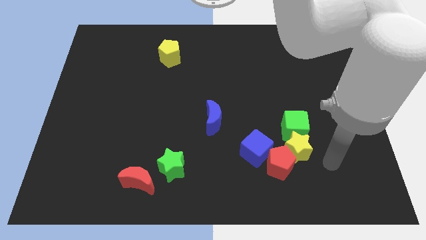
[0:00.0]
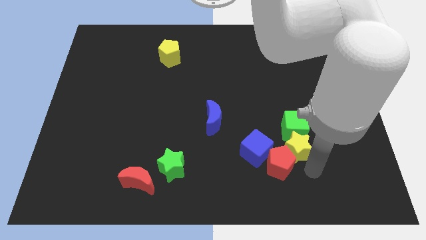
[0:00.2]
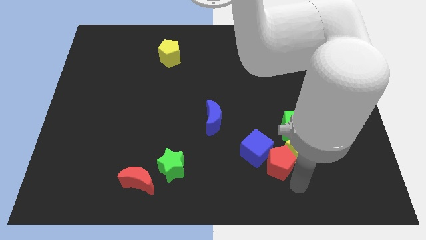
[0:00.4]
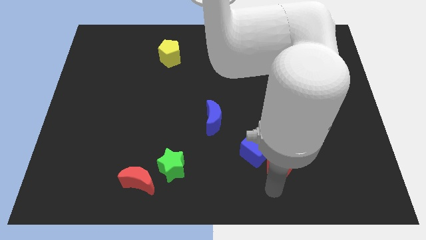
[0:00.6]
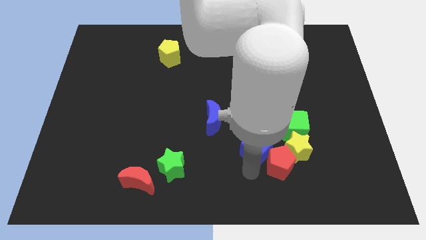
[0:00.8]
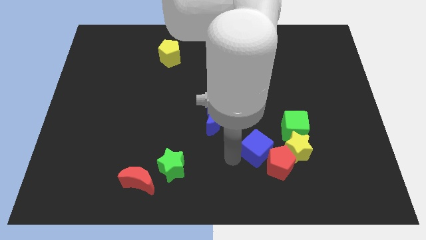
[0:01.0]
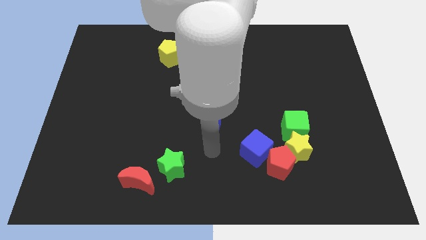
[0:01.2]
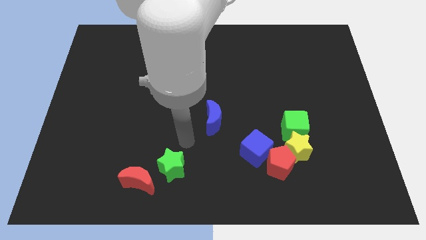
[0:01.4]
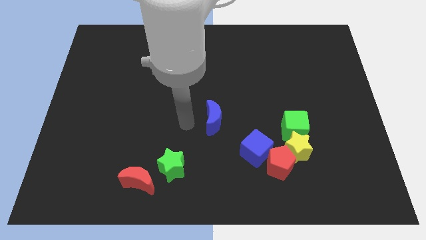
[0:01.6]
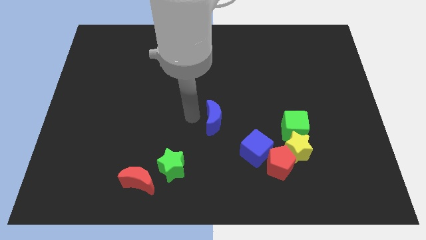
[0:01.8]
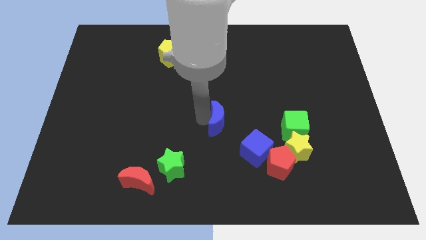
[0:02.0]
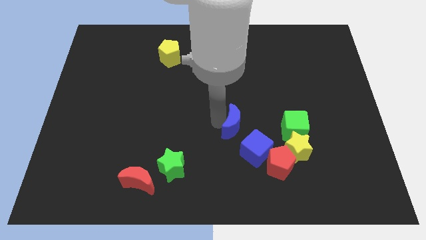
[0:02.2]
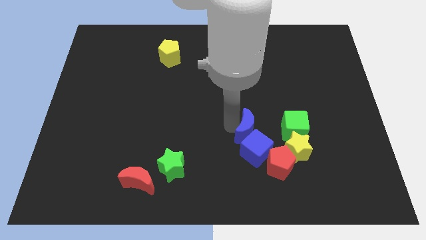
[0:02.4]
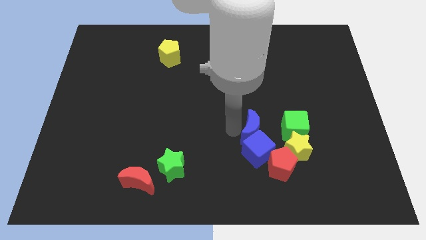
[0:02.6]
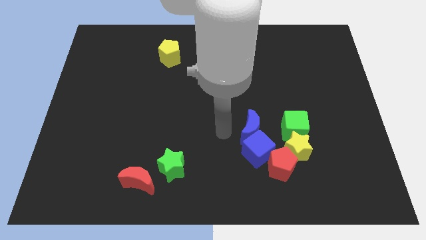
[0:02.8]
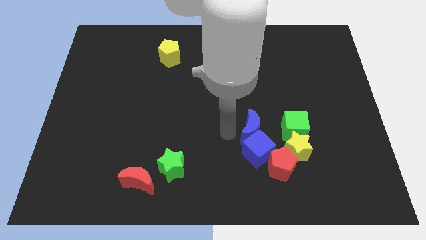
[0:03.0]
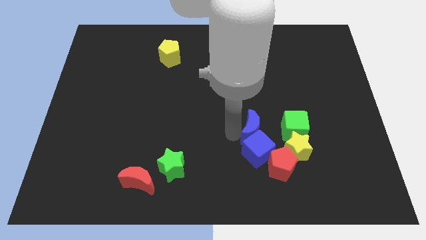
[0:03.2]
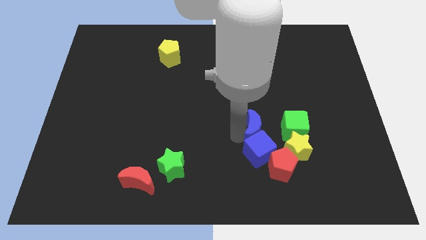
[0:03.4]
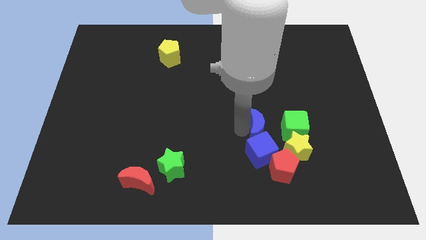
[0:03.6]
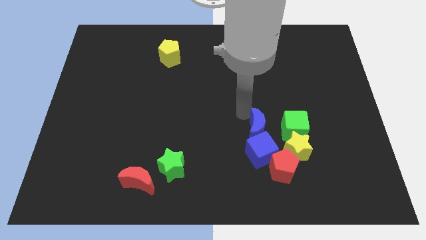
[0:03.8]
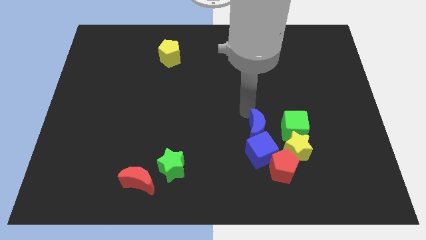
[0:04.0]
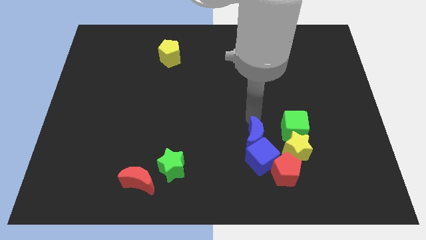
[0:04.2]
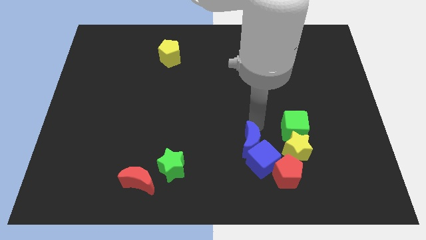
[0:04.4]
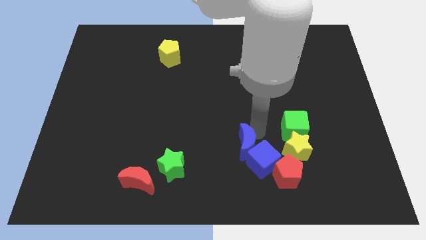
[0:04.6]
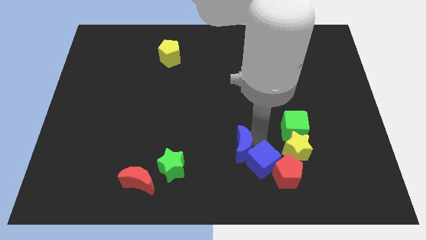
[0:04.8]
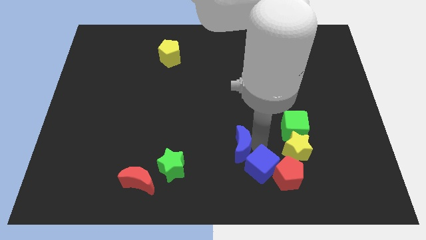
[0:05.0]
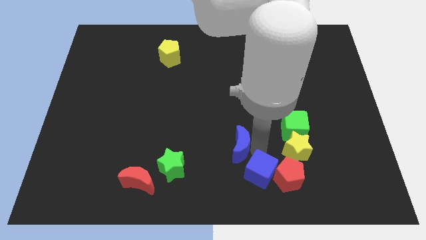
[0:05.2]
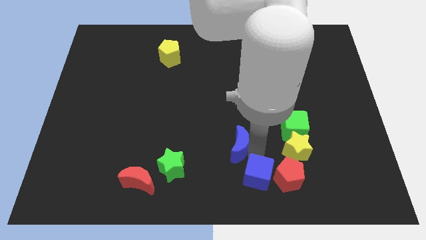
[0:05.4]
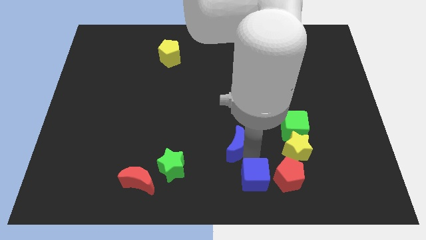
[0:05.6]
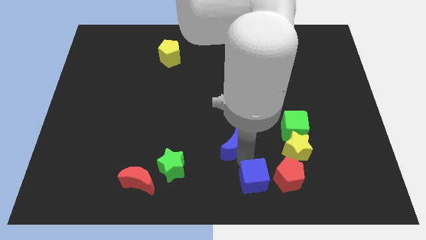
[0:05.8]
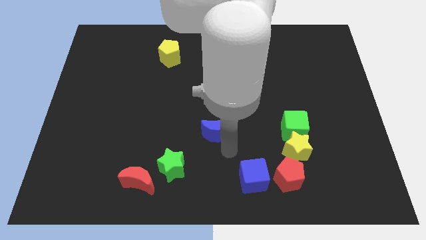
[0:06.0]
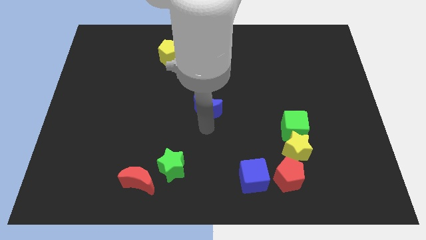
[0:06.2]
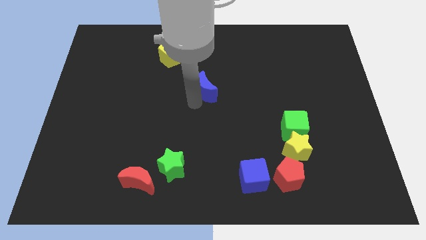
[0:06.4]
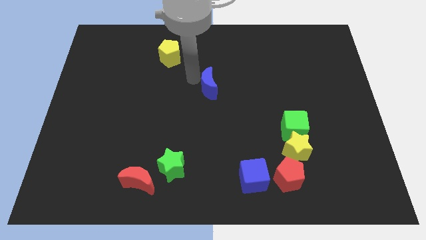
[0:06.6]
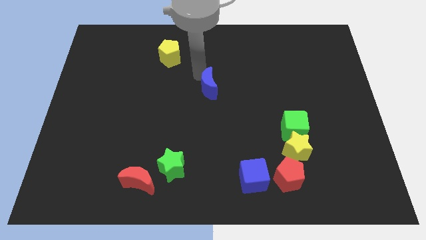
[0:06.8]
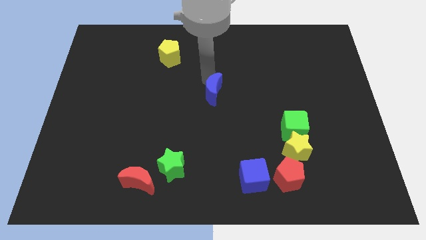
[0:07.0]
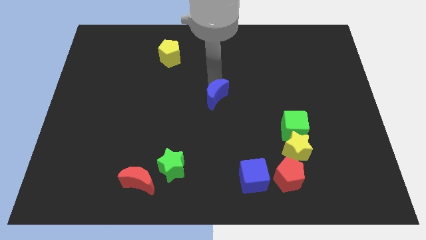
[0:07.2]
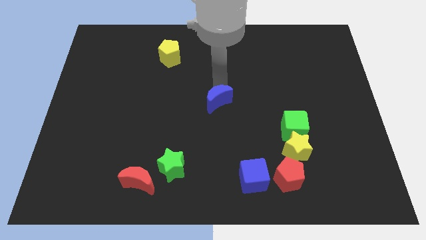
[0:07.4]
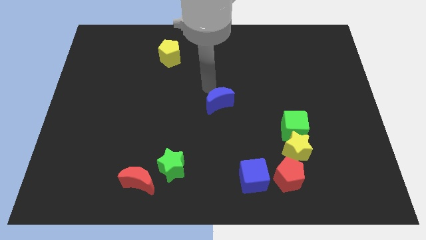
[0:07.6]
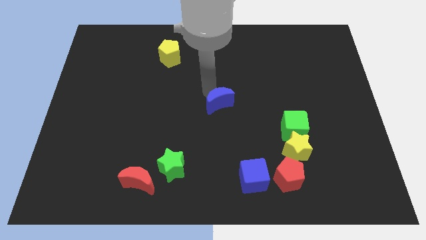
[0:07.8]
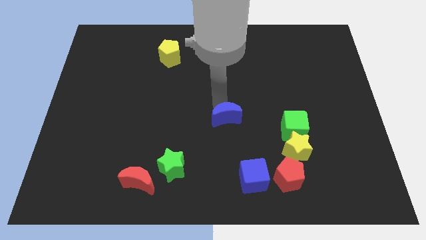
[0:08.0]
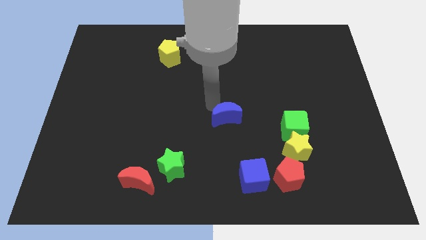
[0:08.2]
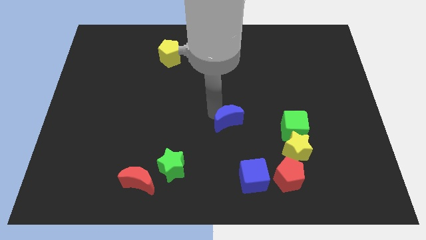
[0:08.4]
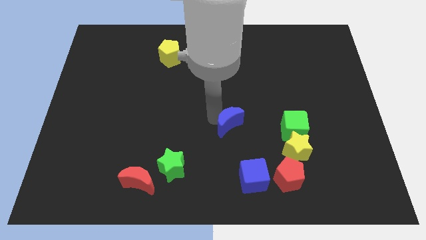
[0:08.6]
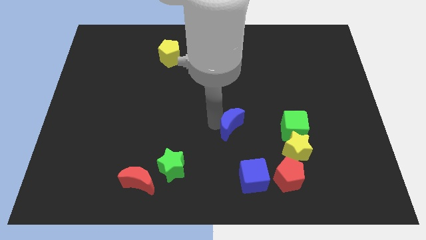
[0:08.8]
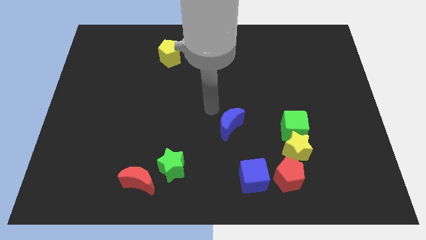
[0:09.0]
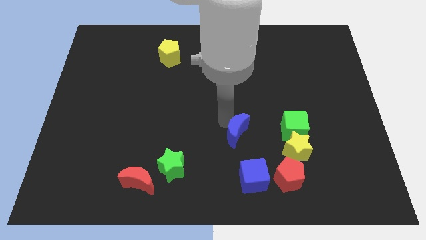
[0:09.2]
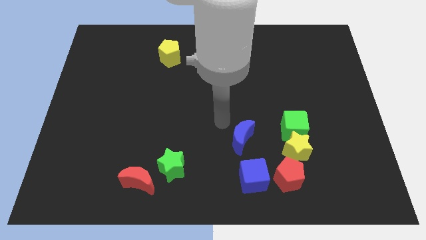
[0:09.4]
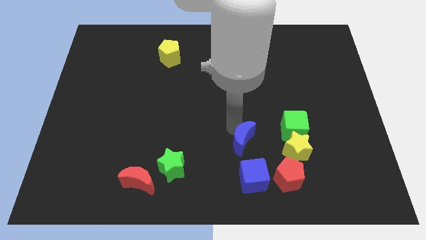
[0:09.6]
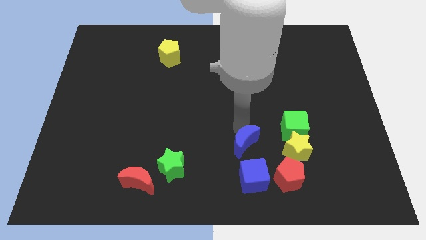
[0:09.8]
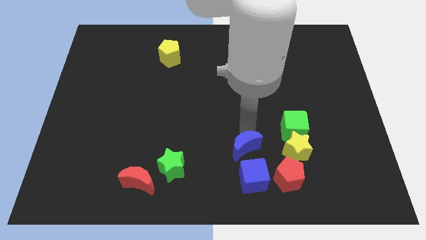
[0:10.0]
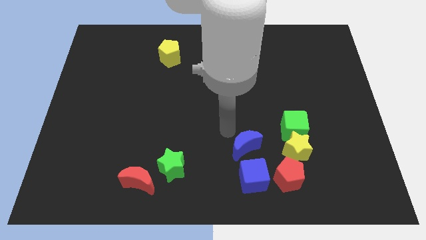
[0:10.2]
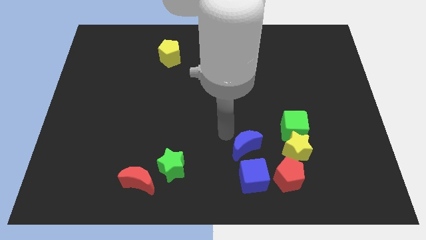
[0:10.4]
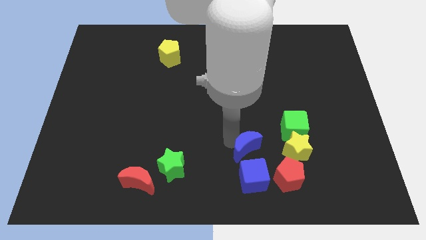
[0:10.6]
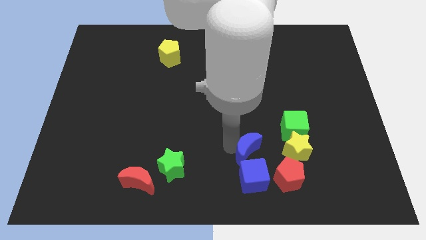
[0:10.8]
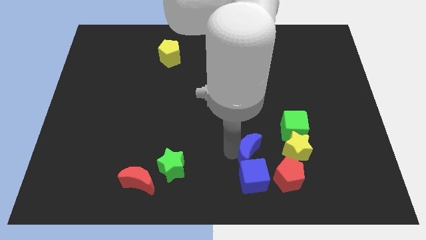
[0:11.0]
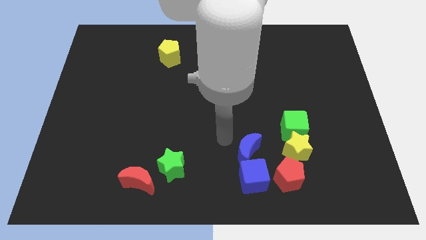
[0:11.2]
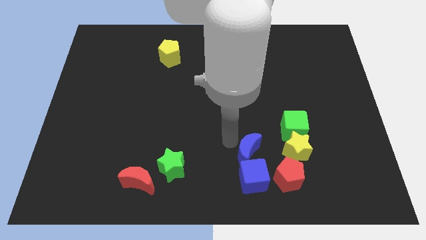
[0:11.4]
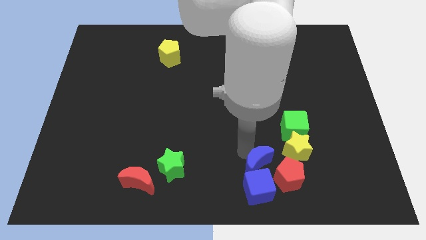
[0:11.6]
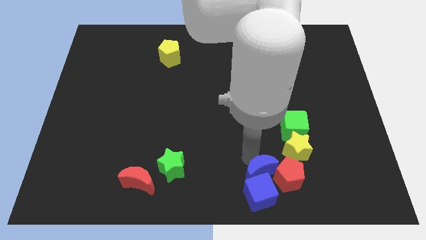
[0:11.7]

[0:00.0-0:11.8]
put the blue moon close to the red pentagon

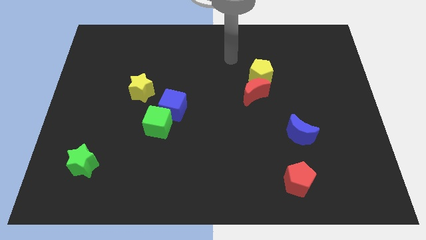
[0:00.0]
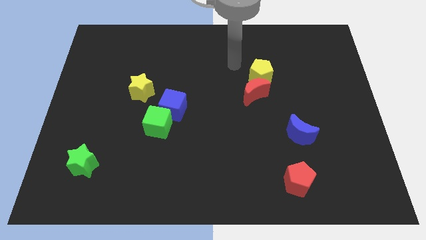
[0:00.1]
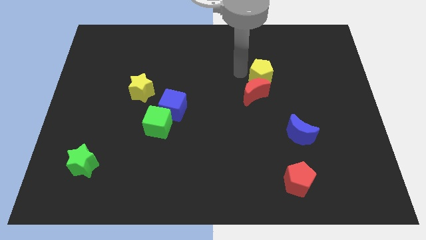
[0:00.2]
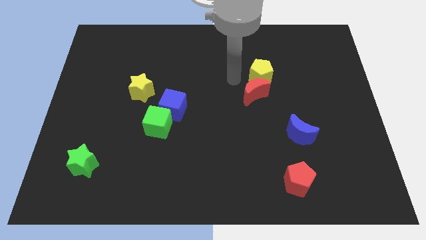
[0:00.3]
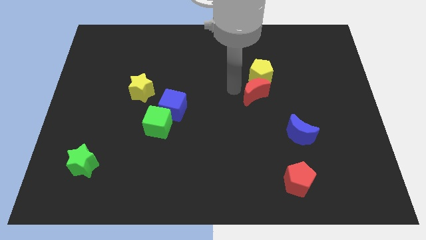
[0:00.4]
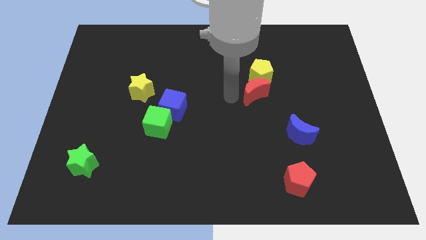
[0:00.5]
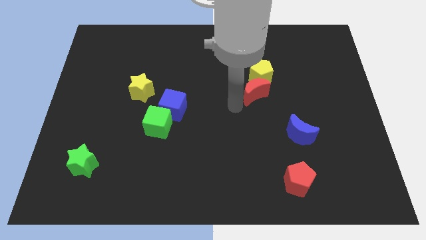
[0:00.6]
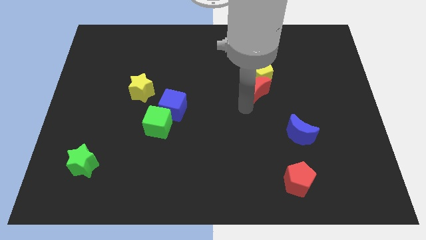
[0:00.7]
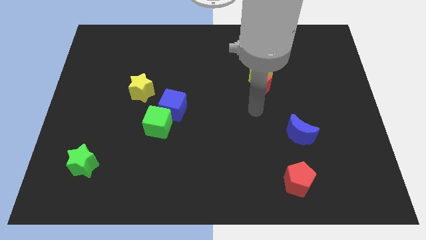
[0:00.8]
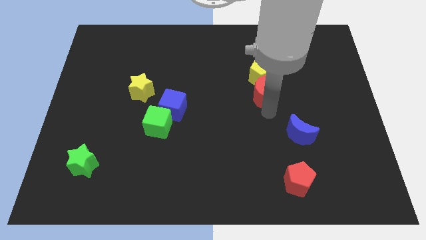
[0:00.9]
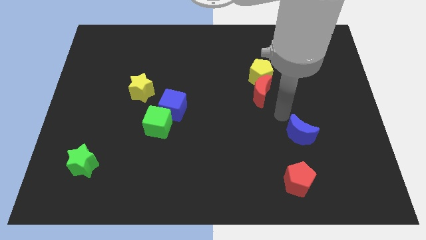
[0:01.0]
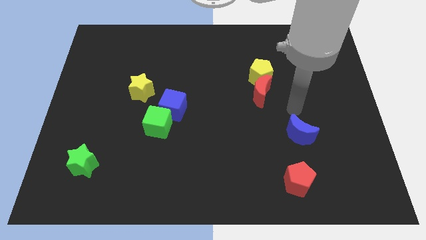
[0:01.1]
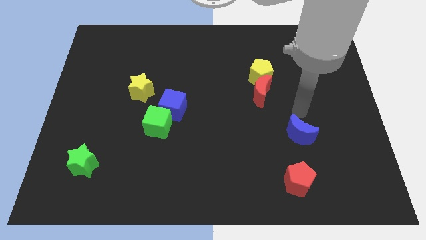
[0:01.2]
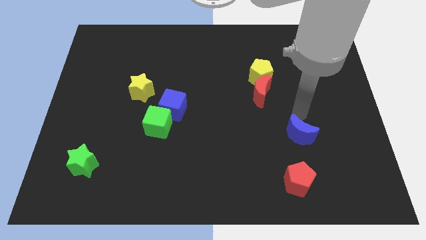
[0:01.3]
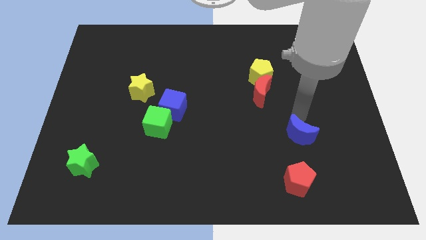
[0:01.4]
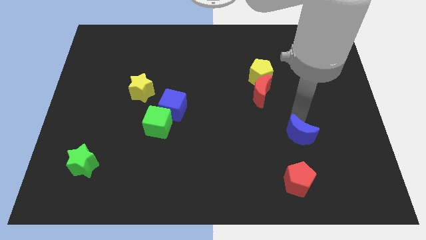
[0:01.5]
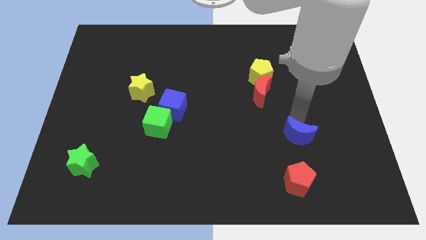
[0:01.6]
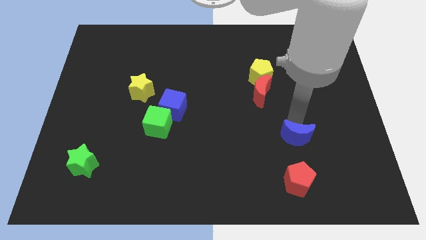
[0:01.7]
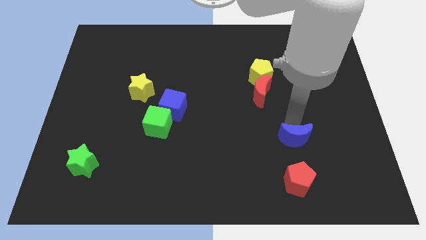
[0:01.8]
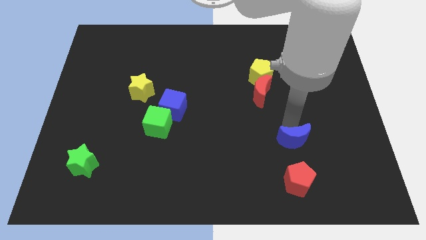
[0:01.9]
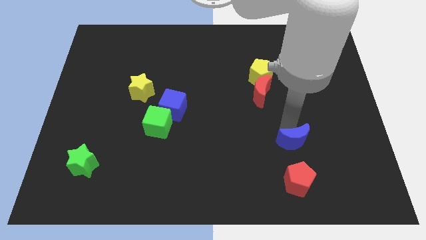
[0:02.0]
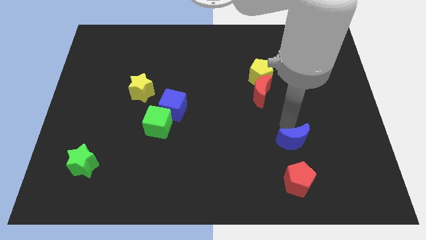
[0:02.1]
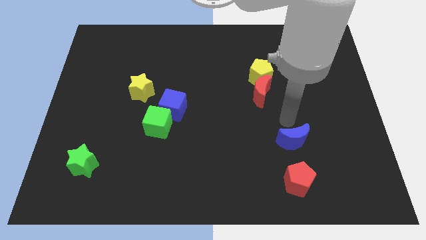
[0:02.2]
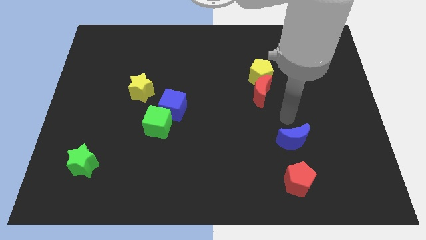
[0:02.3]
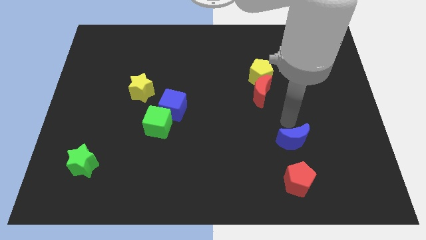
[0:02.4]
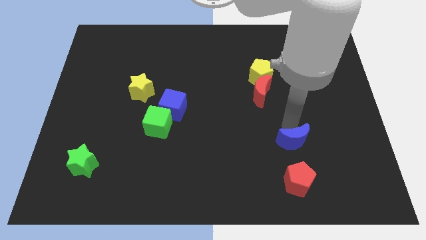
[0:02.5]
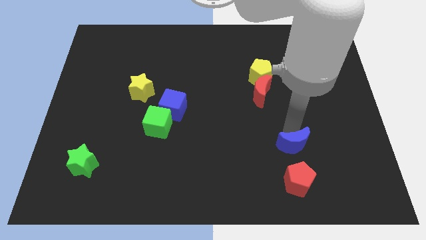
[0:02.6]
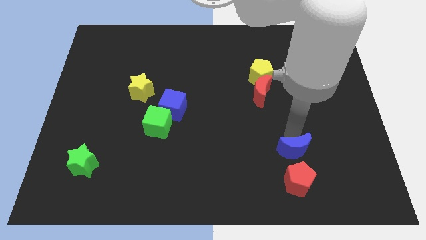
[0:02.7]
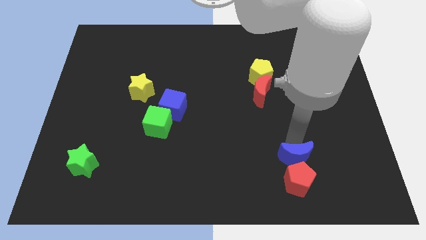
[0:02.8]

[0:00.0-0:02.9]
slide the blue moon close to the red pentagon
